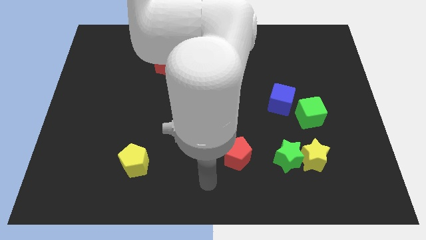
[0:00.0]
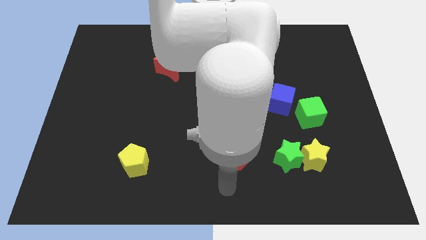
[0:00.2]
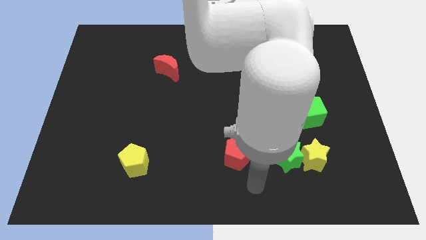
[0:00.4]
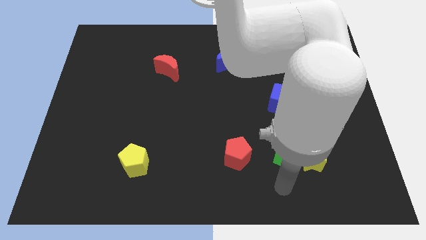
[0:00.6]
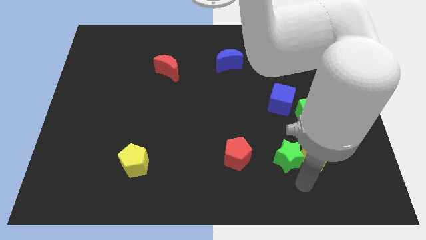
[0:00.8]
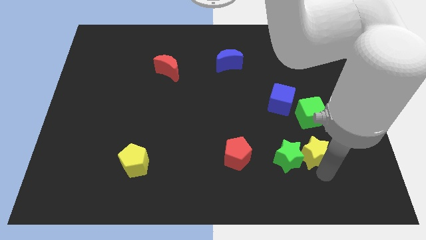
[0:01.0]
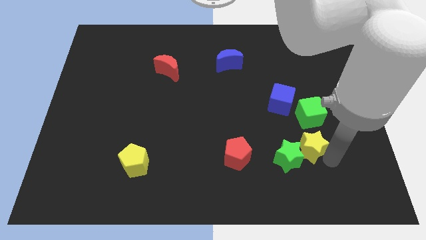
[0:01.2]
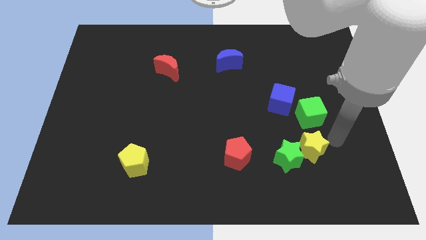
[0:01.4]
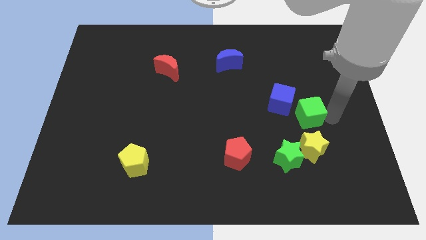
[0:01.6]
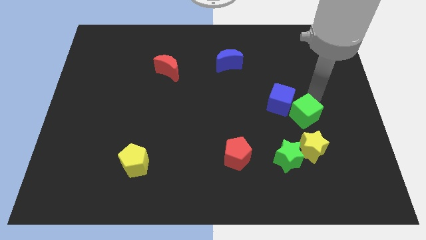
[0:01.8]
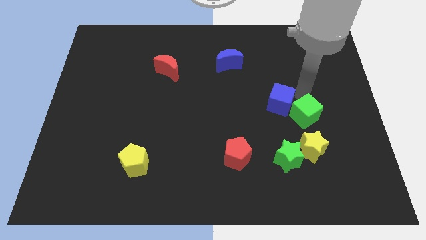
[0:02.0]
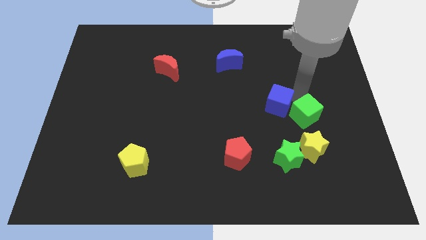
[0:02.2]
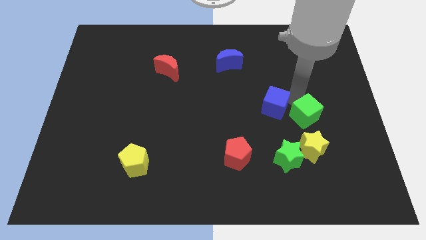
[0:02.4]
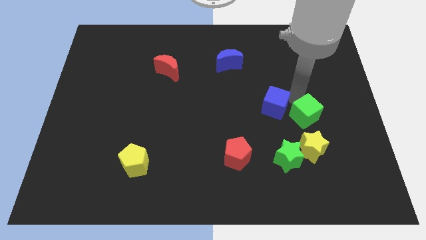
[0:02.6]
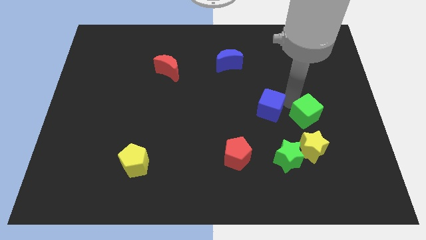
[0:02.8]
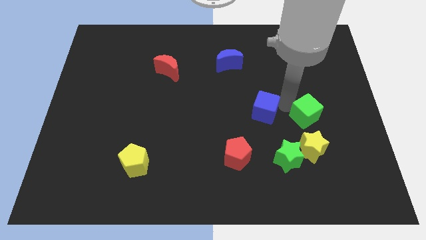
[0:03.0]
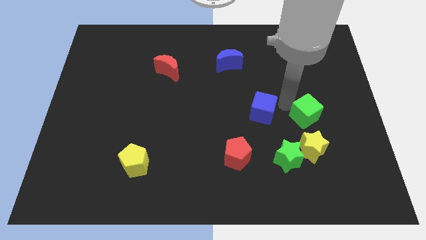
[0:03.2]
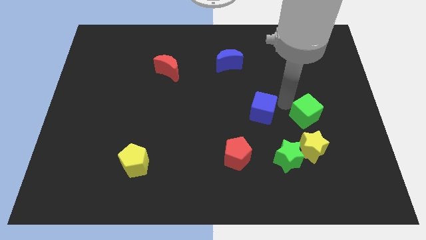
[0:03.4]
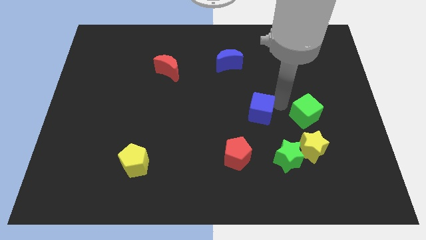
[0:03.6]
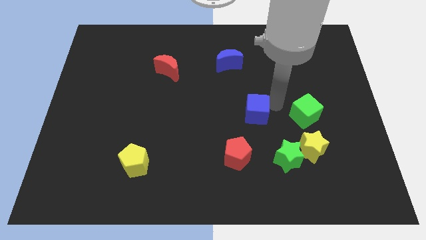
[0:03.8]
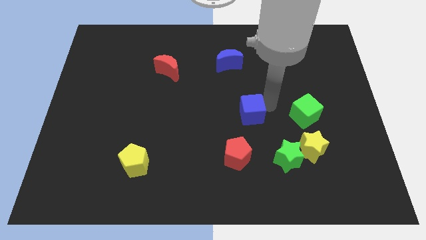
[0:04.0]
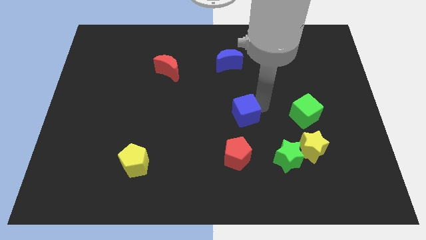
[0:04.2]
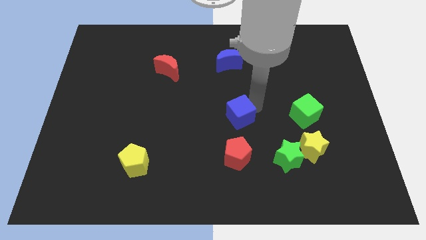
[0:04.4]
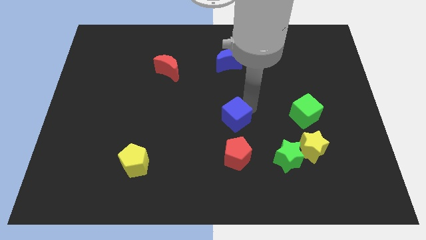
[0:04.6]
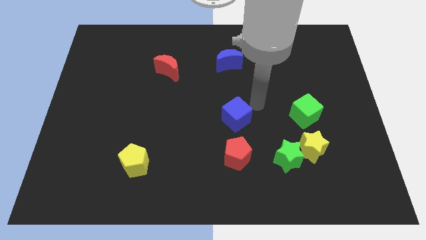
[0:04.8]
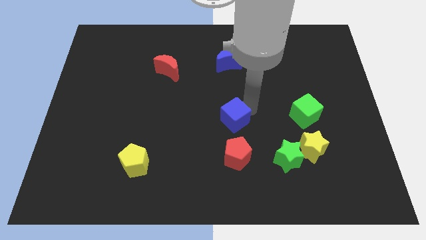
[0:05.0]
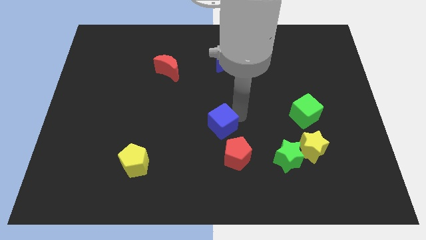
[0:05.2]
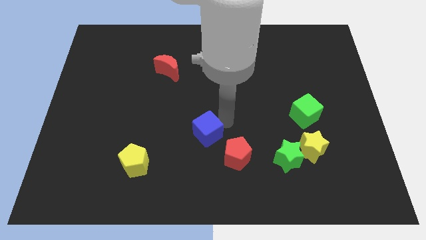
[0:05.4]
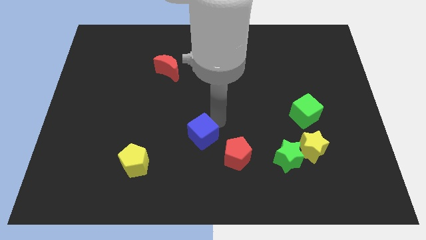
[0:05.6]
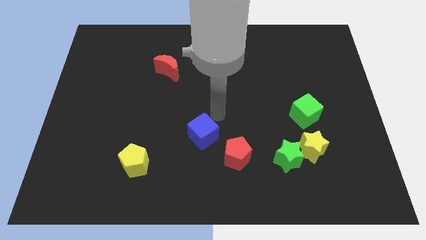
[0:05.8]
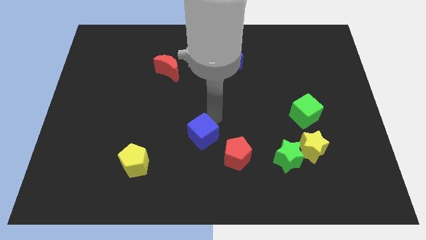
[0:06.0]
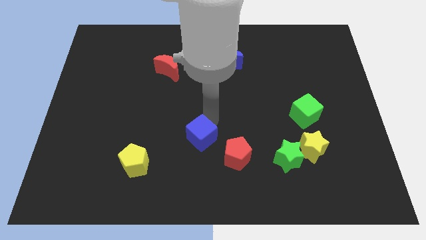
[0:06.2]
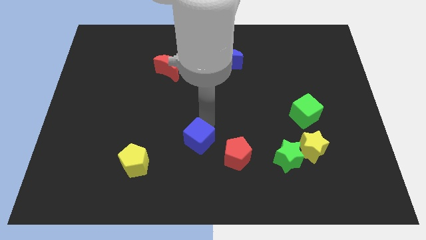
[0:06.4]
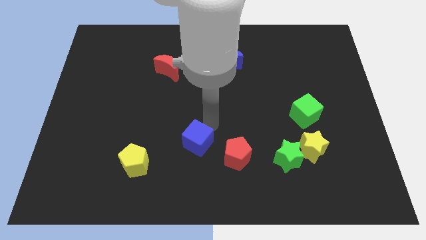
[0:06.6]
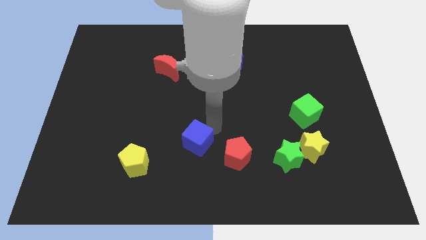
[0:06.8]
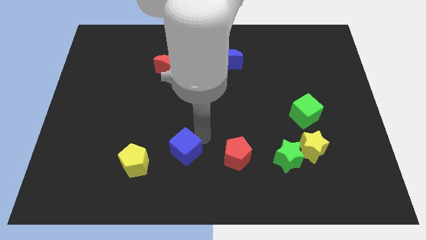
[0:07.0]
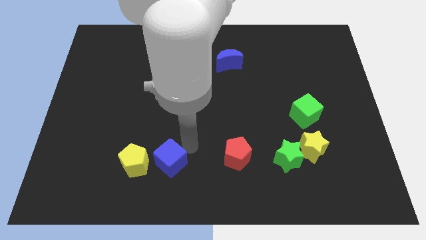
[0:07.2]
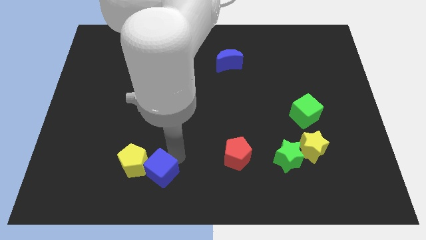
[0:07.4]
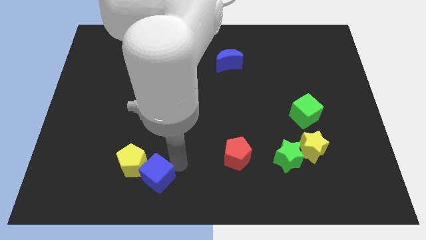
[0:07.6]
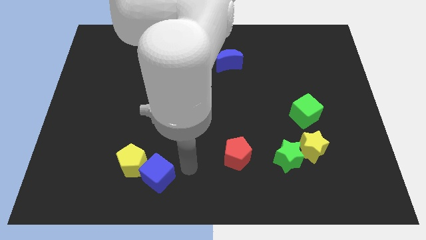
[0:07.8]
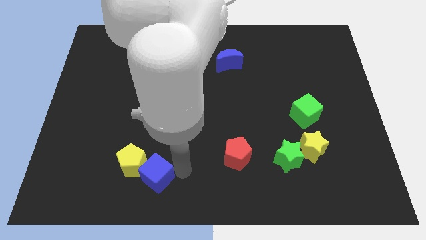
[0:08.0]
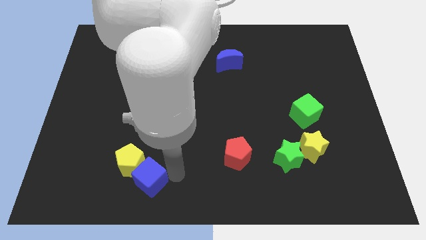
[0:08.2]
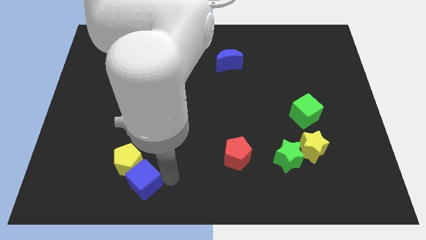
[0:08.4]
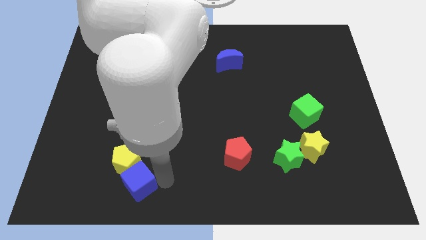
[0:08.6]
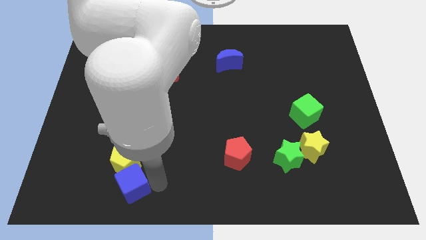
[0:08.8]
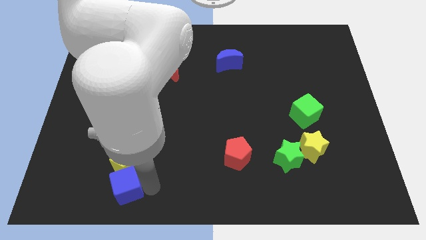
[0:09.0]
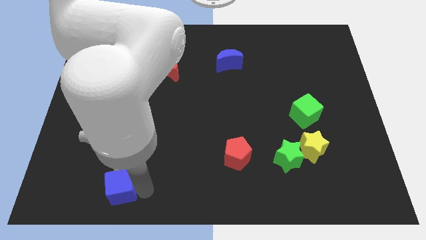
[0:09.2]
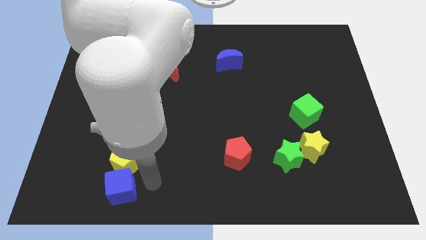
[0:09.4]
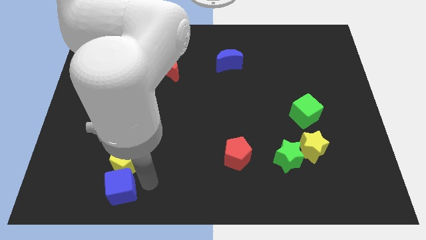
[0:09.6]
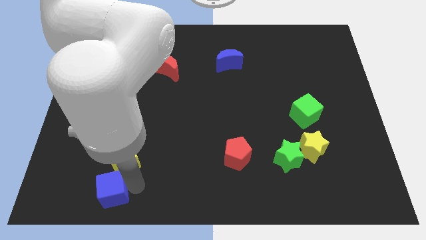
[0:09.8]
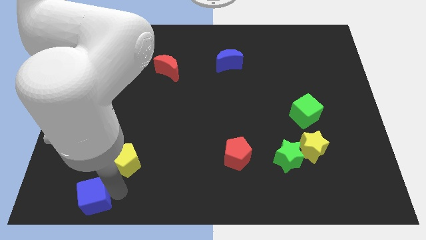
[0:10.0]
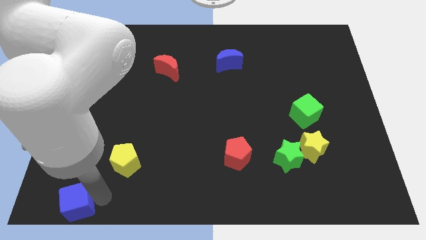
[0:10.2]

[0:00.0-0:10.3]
move the blue cube to the lower left corner
